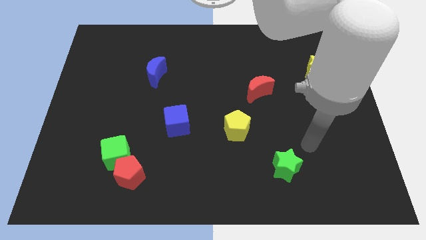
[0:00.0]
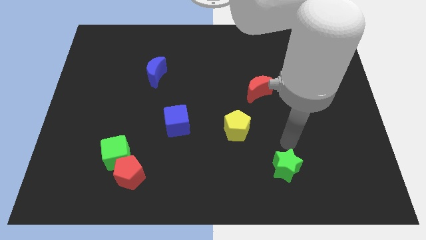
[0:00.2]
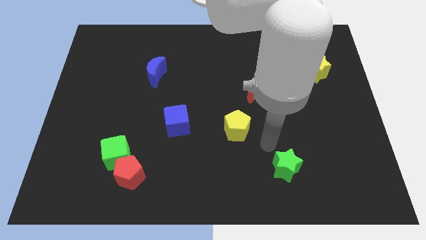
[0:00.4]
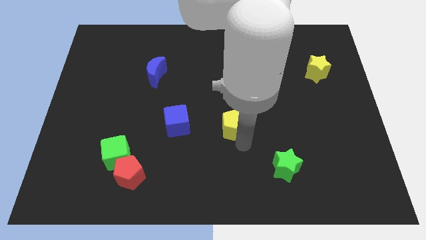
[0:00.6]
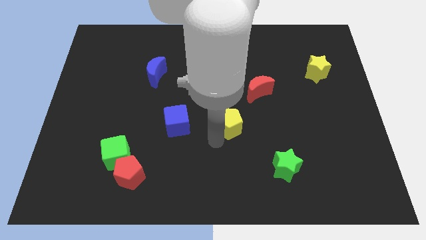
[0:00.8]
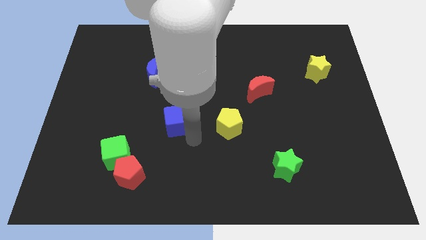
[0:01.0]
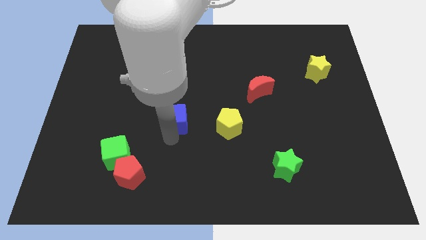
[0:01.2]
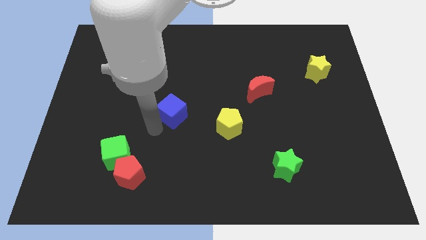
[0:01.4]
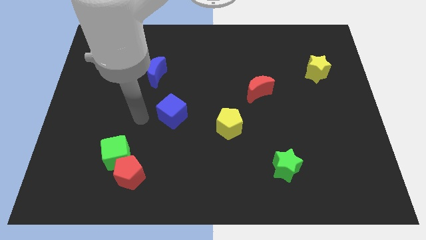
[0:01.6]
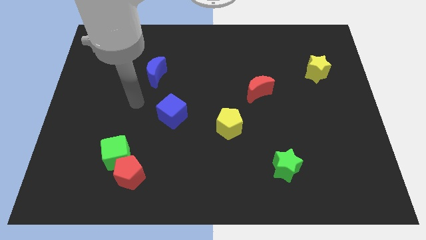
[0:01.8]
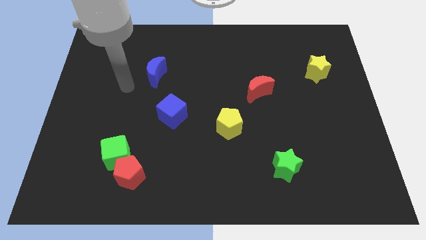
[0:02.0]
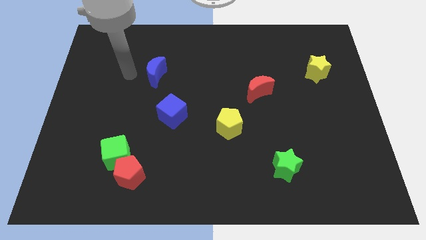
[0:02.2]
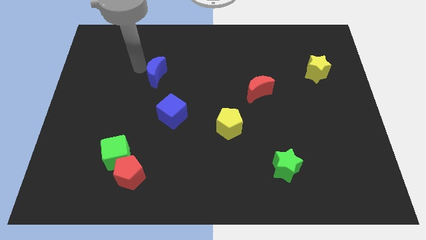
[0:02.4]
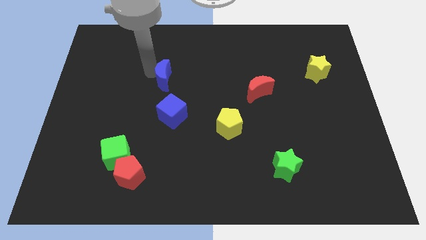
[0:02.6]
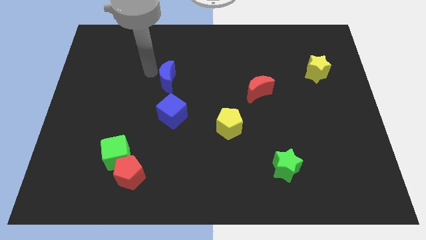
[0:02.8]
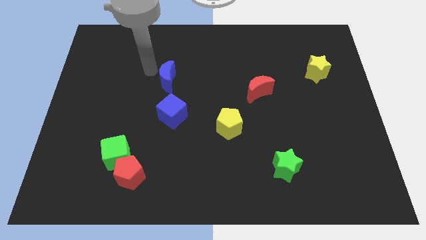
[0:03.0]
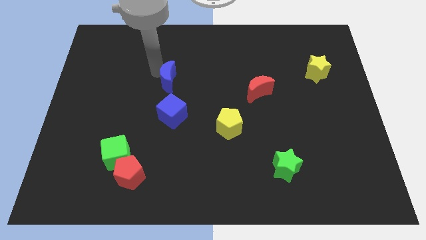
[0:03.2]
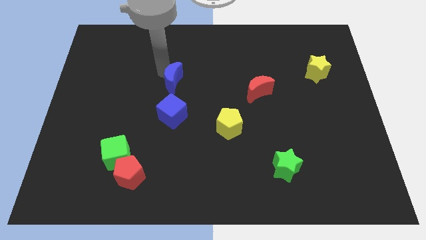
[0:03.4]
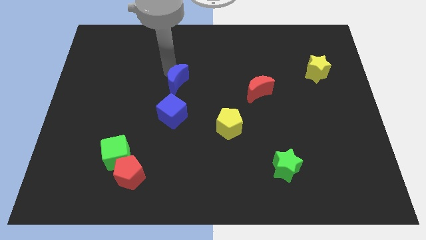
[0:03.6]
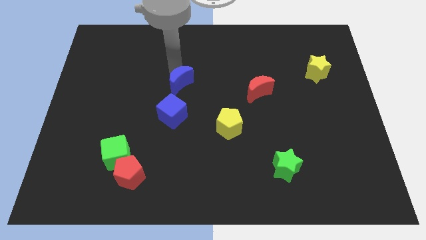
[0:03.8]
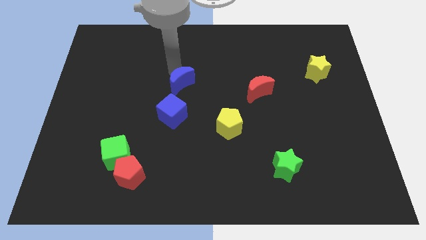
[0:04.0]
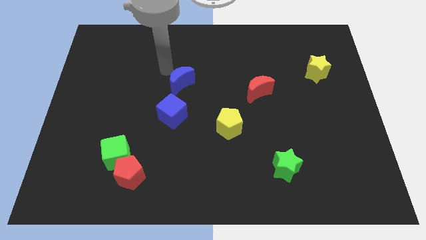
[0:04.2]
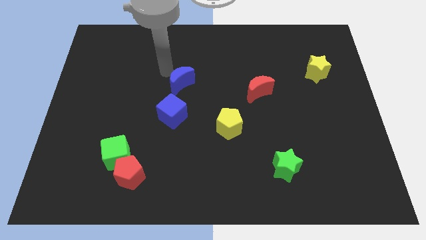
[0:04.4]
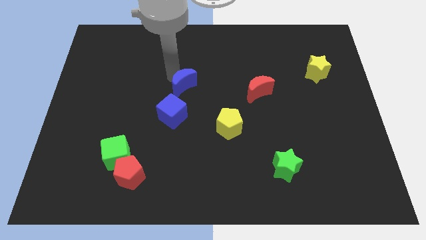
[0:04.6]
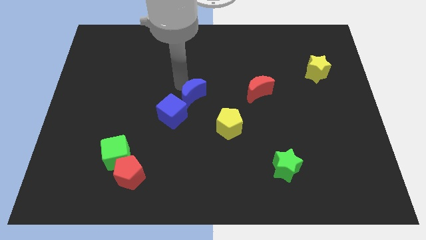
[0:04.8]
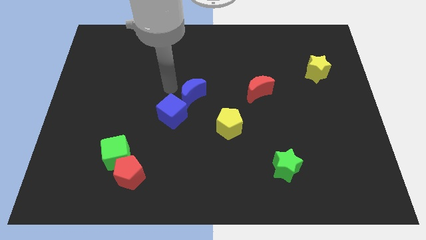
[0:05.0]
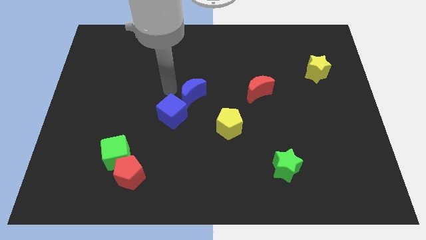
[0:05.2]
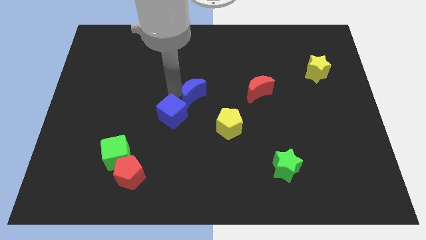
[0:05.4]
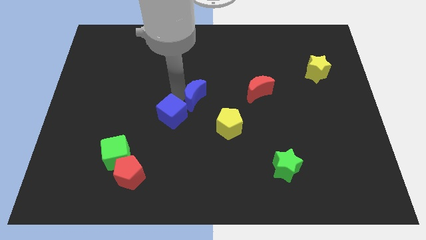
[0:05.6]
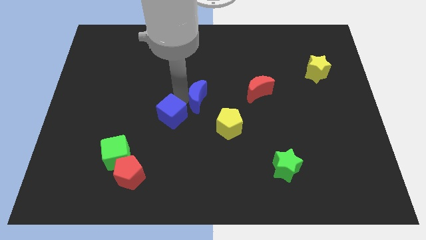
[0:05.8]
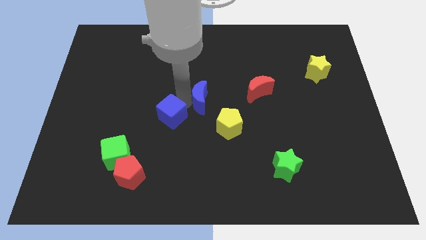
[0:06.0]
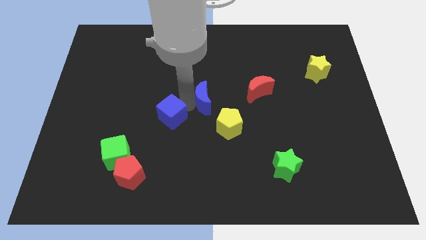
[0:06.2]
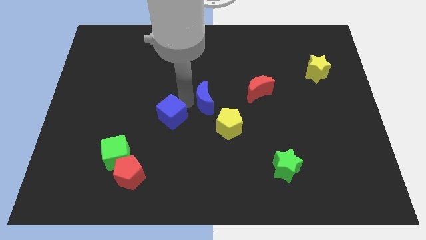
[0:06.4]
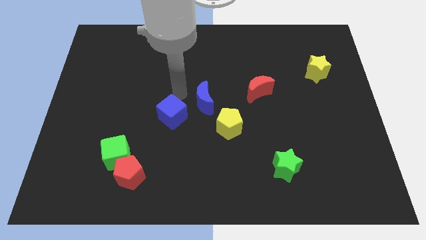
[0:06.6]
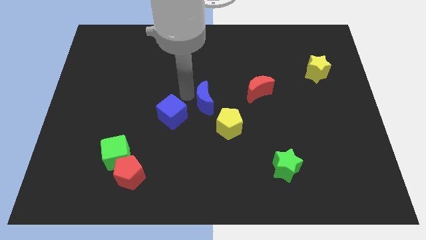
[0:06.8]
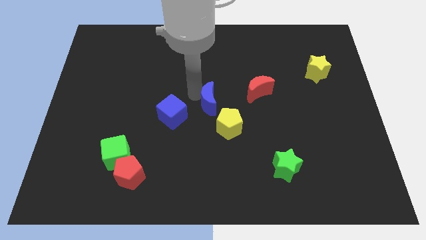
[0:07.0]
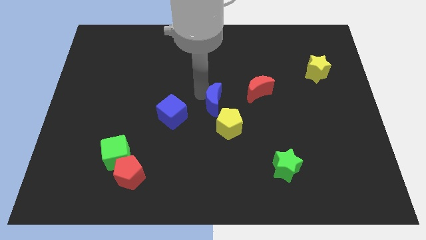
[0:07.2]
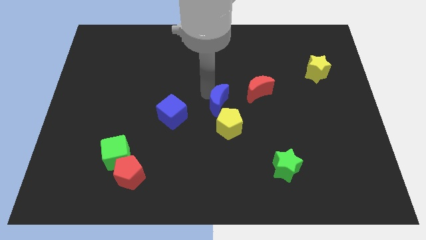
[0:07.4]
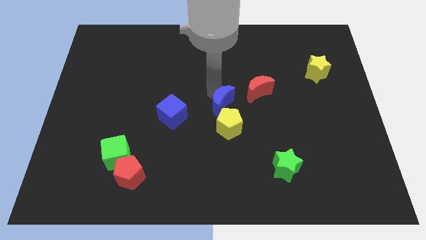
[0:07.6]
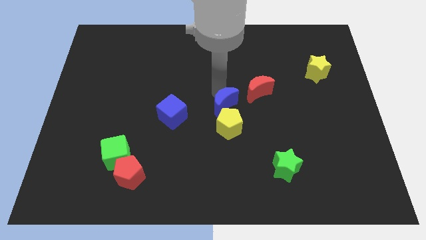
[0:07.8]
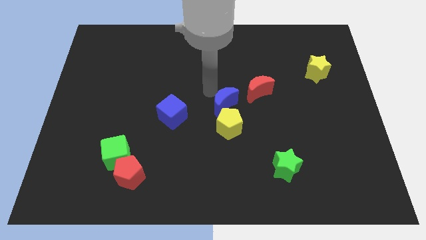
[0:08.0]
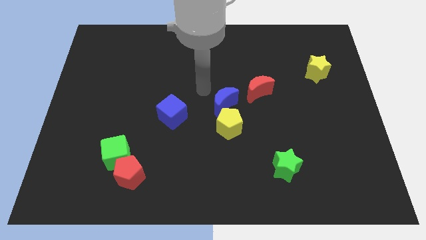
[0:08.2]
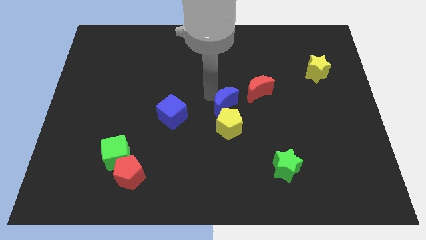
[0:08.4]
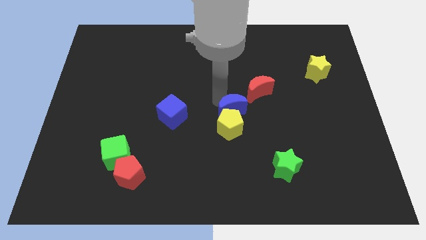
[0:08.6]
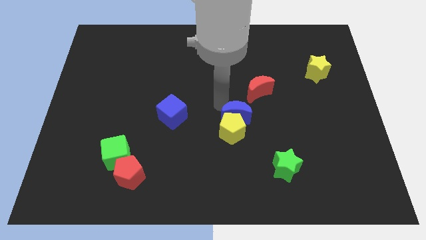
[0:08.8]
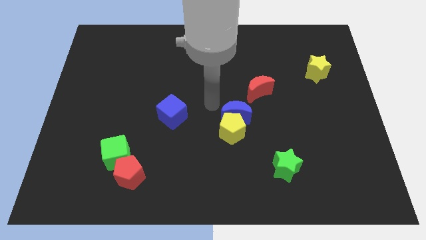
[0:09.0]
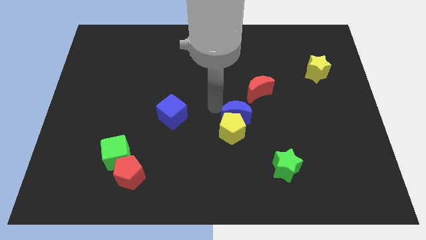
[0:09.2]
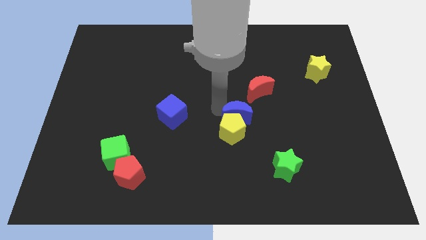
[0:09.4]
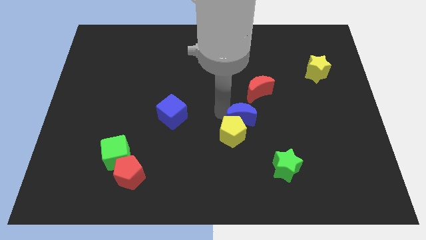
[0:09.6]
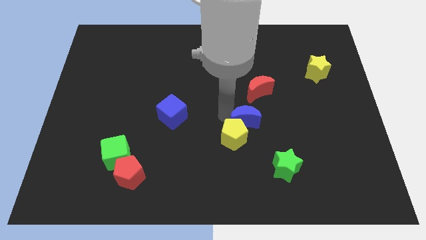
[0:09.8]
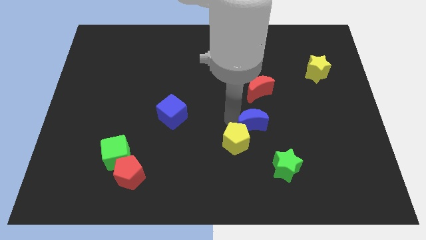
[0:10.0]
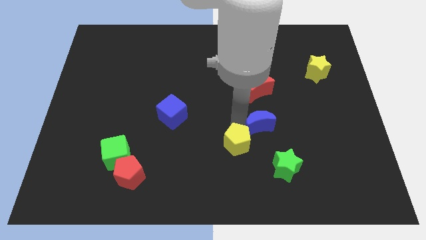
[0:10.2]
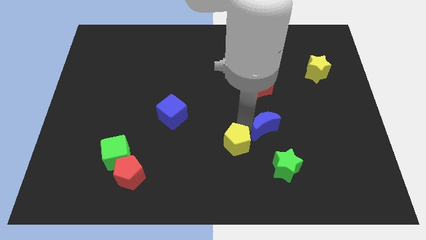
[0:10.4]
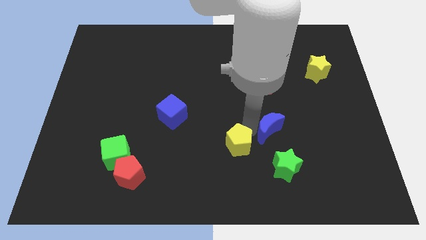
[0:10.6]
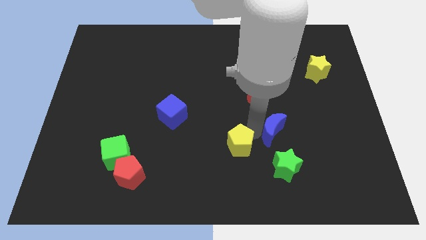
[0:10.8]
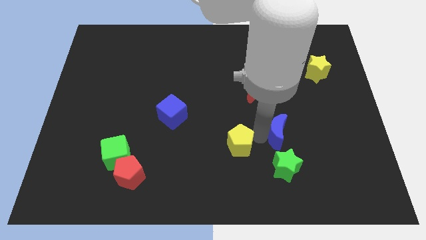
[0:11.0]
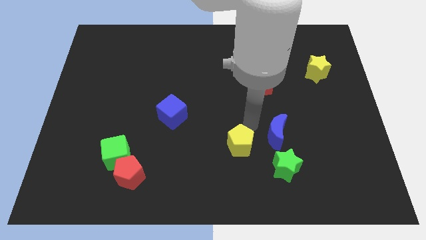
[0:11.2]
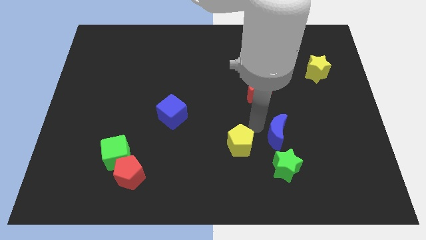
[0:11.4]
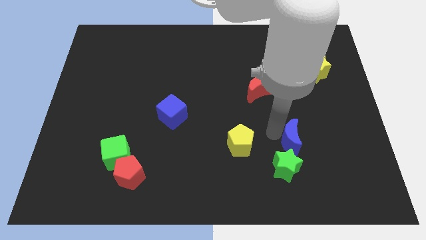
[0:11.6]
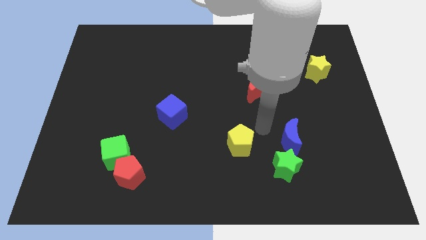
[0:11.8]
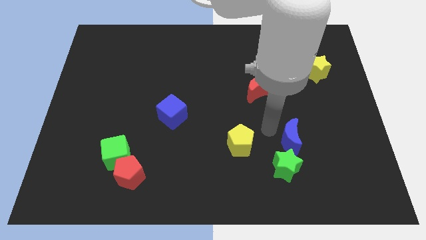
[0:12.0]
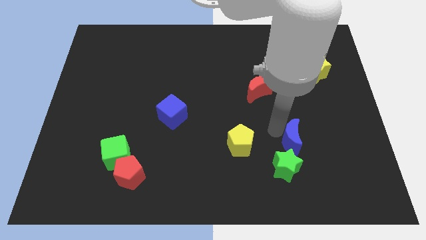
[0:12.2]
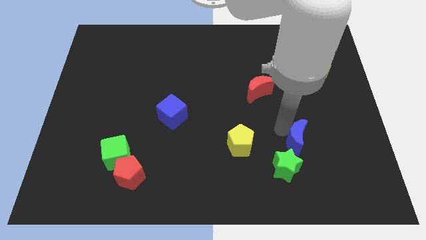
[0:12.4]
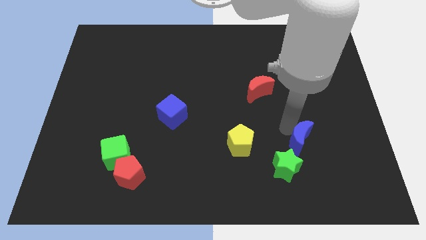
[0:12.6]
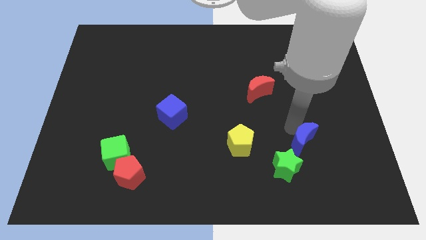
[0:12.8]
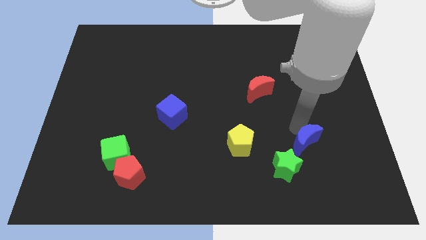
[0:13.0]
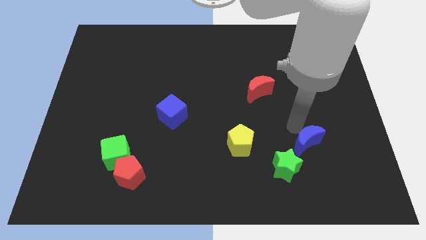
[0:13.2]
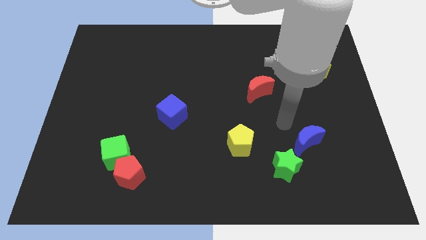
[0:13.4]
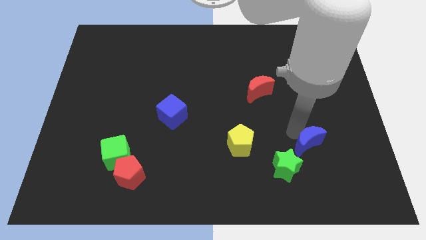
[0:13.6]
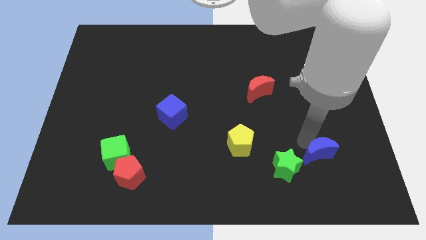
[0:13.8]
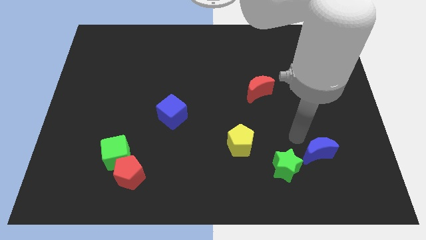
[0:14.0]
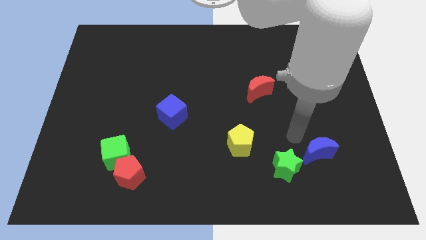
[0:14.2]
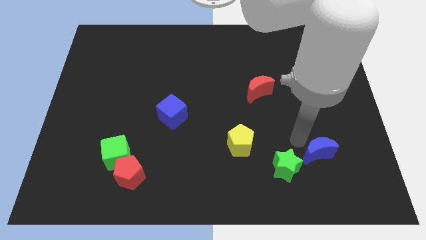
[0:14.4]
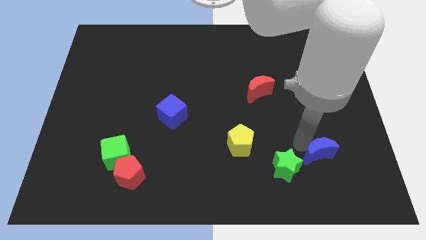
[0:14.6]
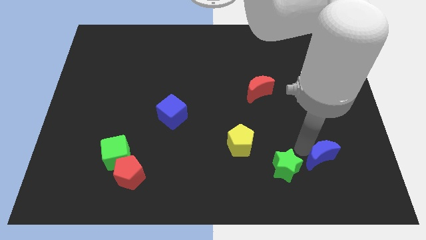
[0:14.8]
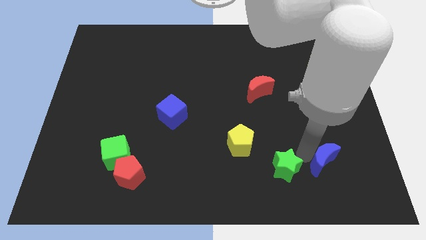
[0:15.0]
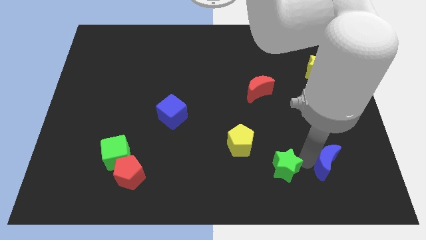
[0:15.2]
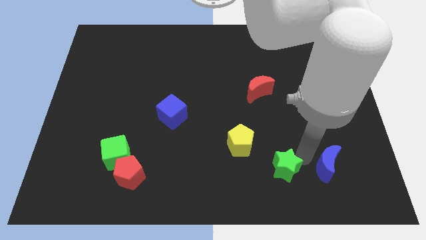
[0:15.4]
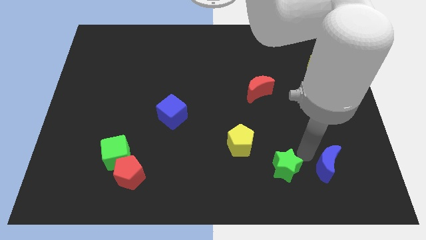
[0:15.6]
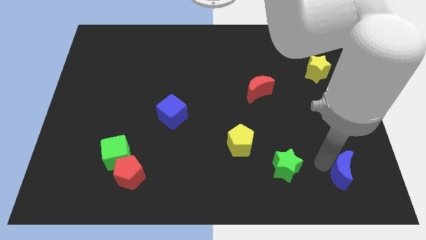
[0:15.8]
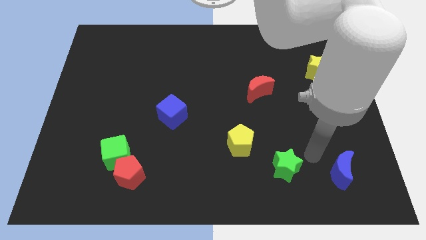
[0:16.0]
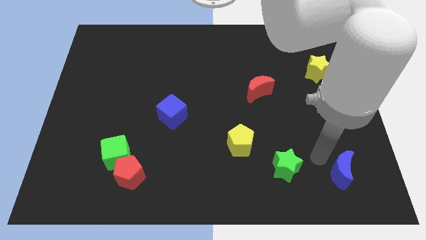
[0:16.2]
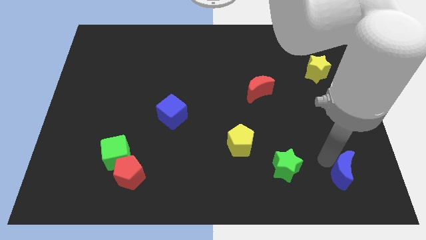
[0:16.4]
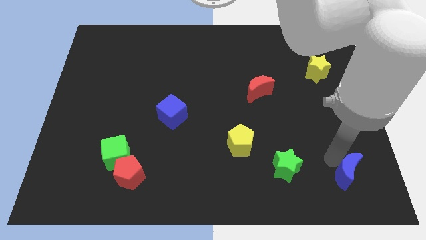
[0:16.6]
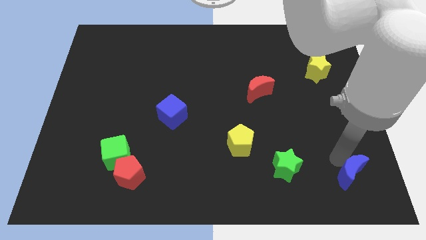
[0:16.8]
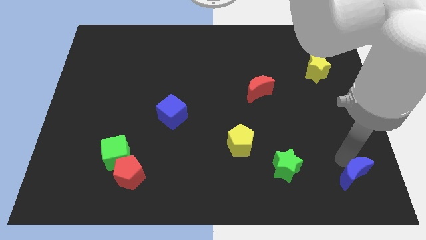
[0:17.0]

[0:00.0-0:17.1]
move the blue moon to the bottom right
